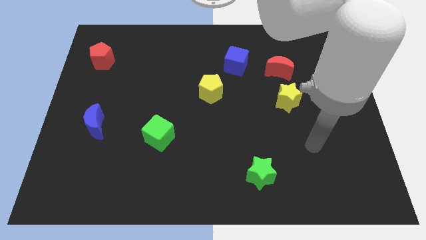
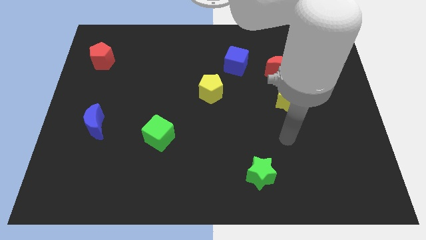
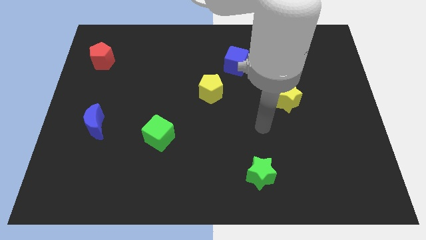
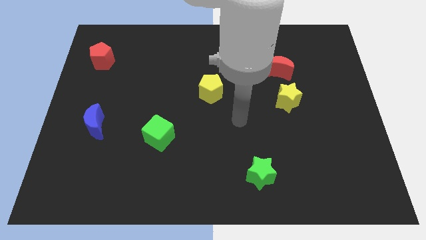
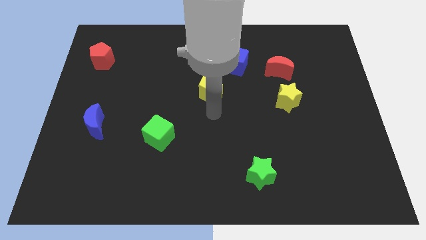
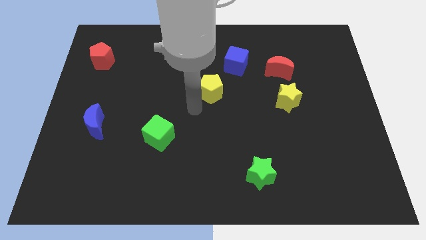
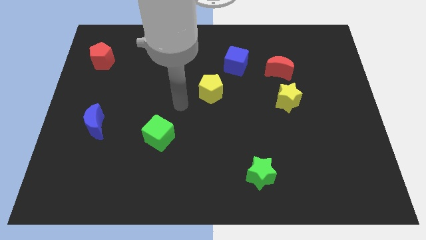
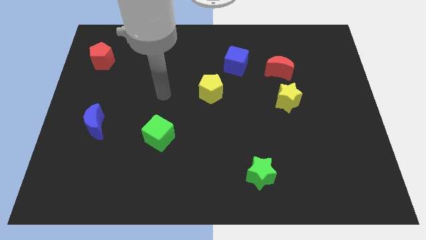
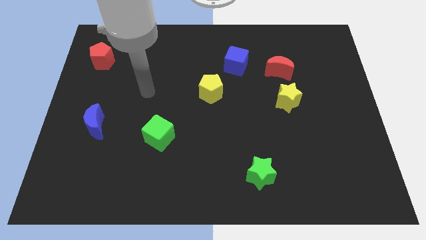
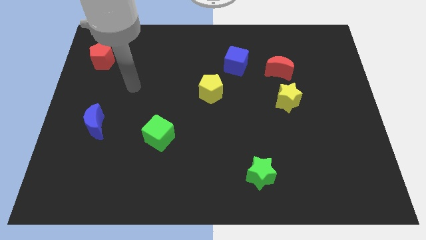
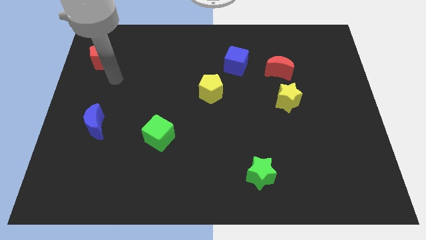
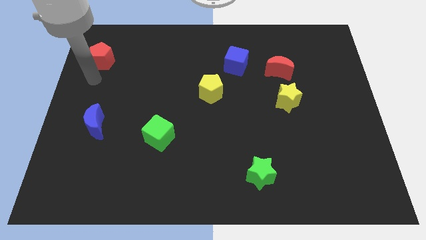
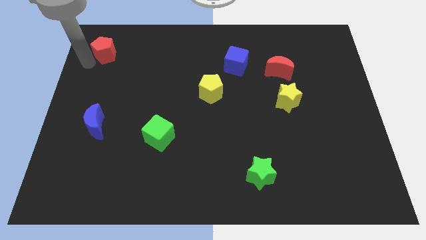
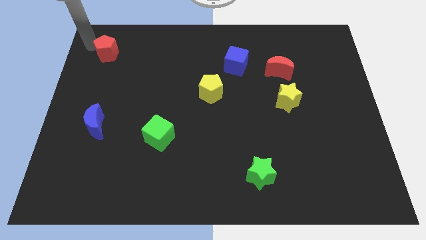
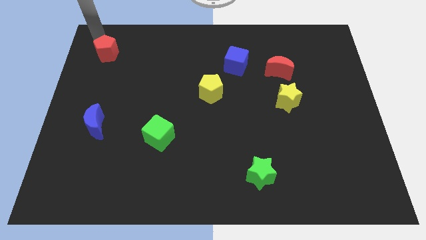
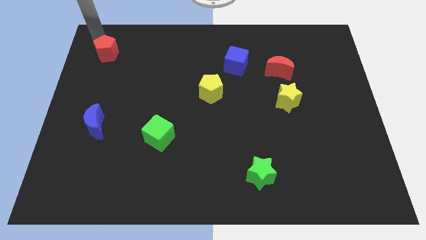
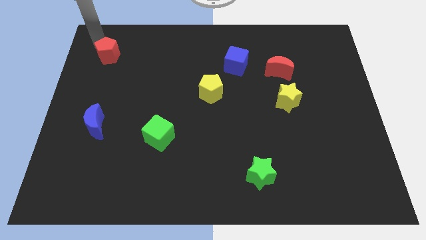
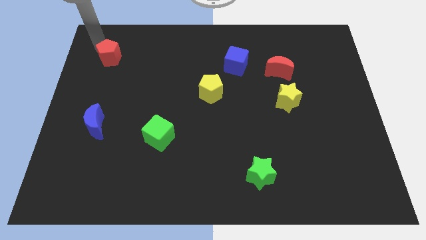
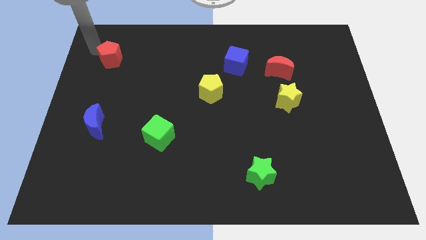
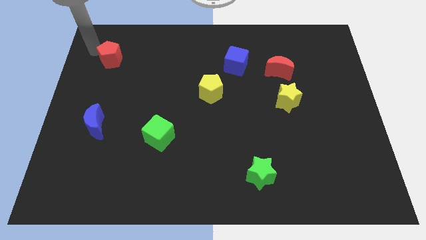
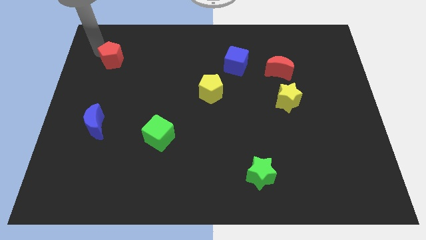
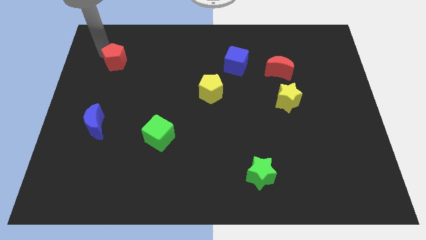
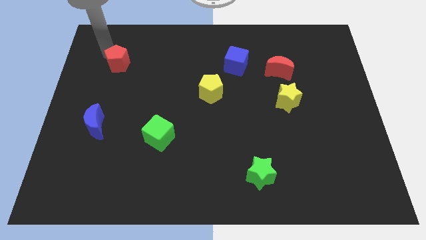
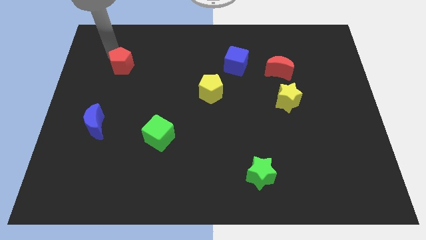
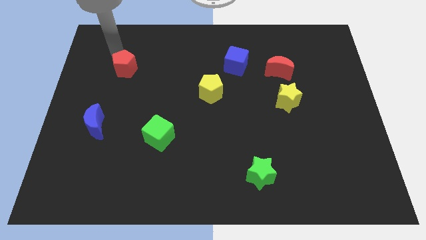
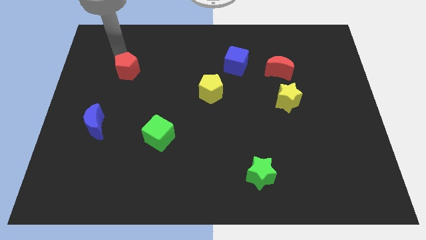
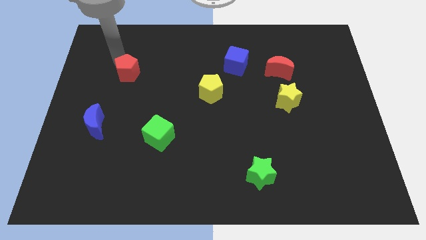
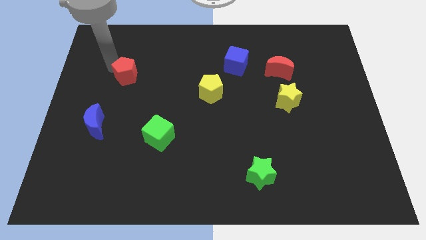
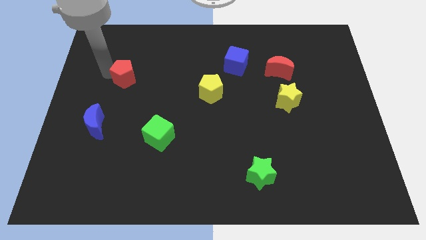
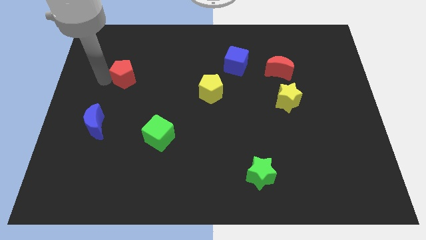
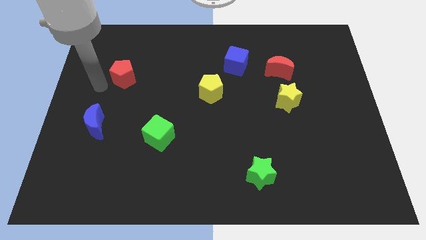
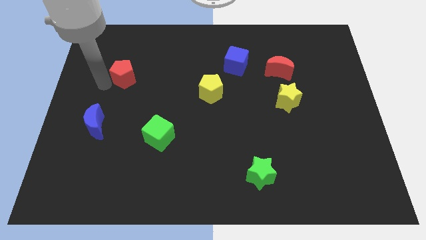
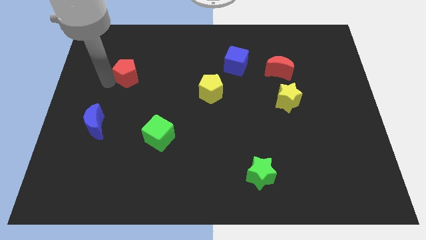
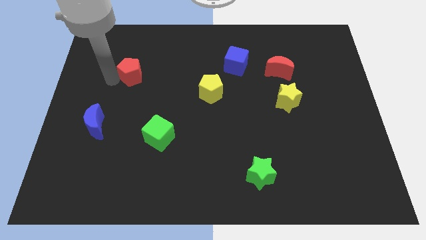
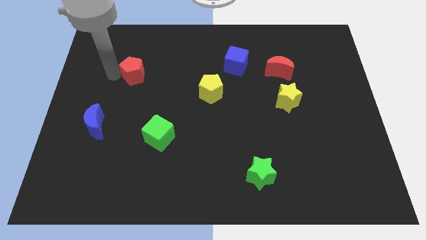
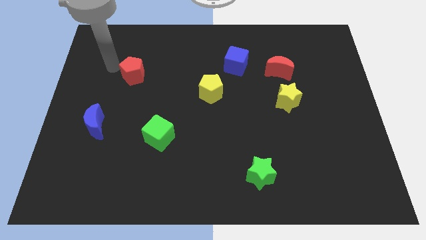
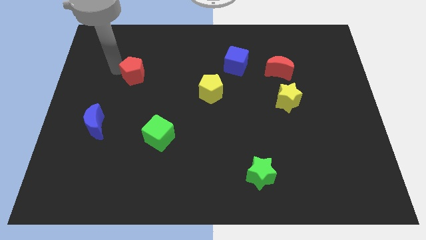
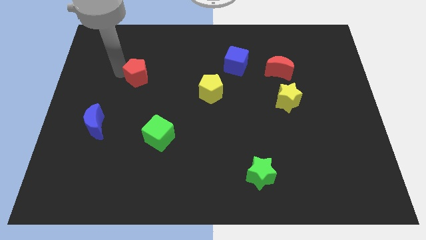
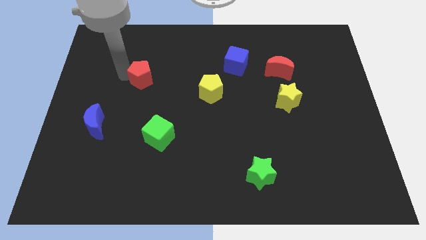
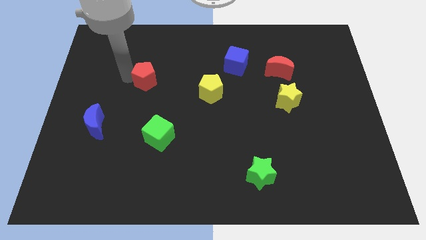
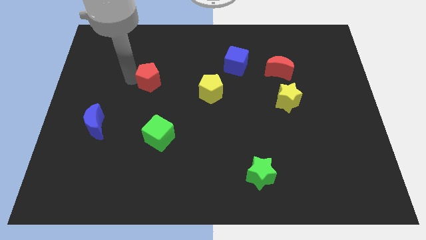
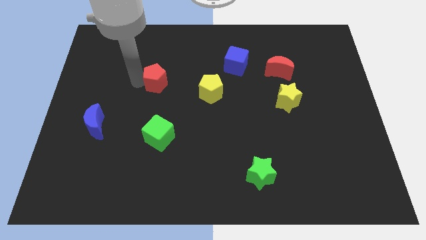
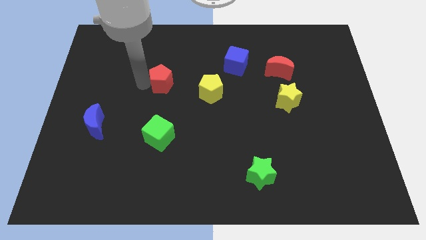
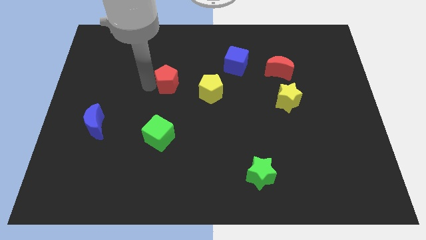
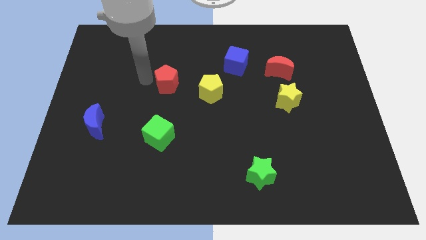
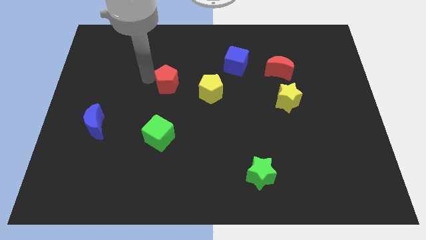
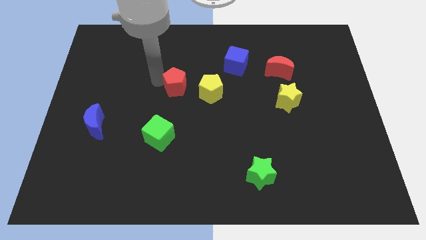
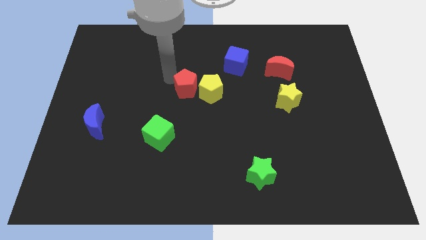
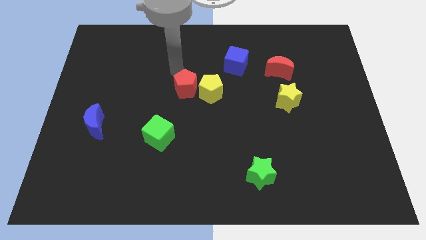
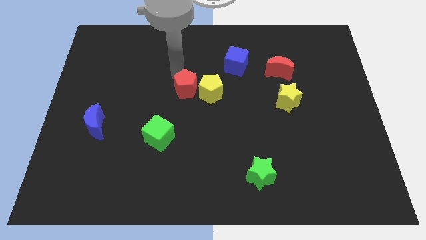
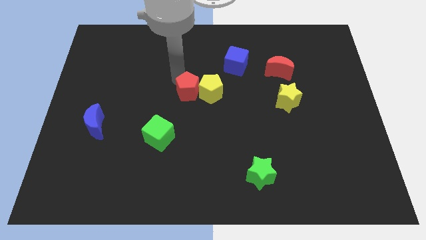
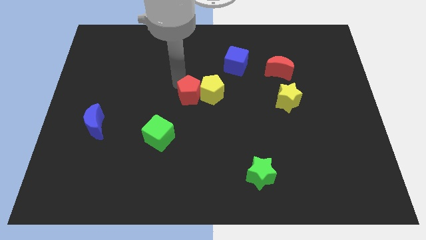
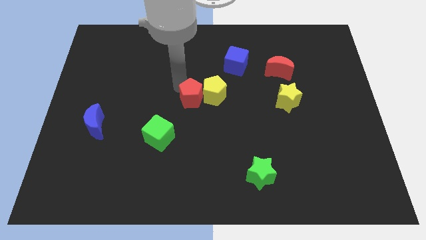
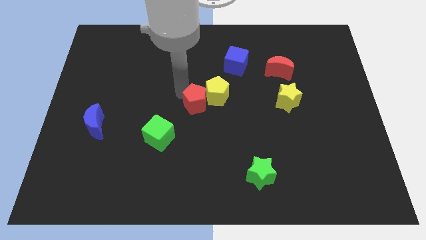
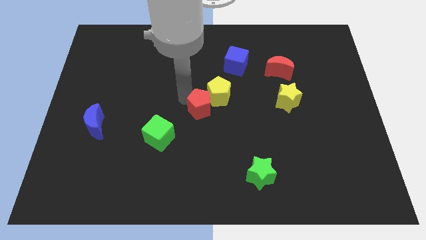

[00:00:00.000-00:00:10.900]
push the red pentagon to the bottom side of the yellow pentagon

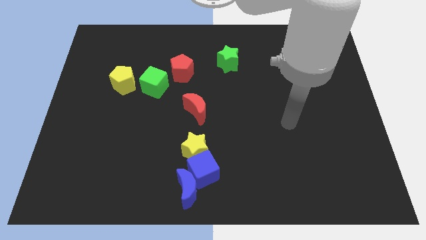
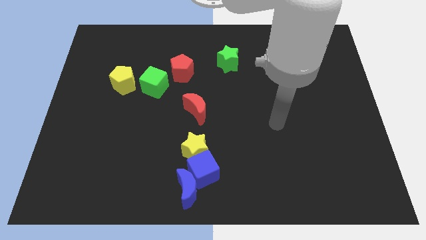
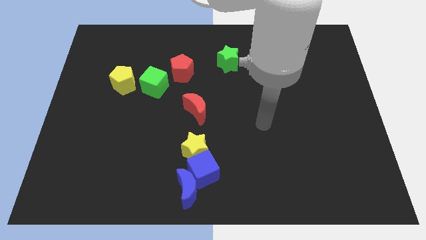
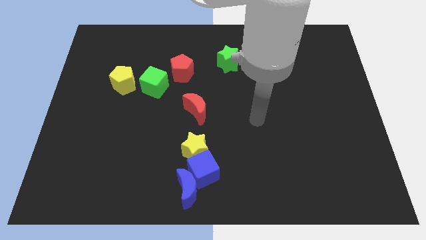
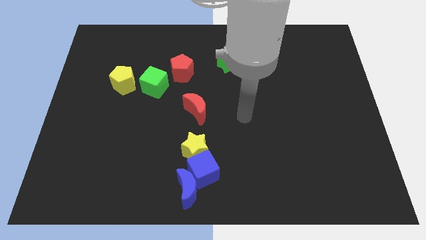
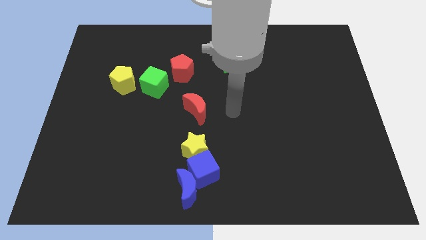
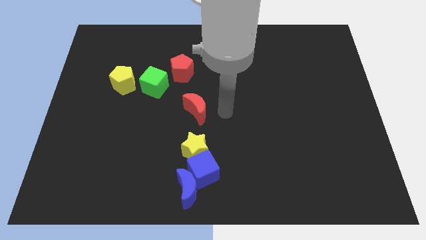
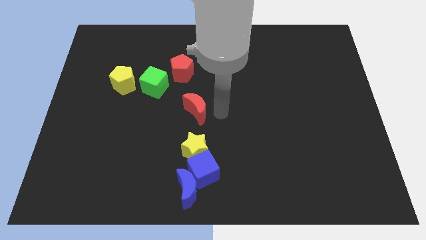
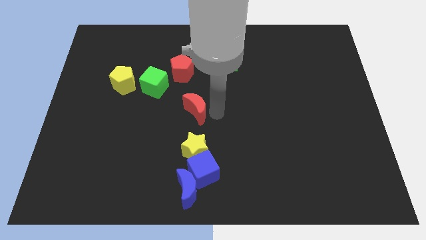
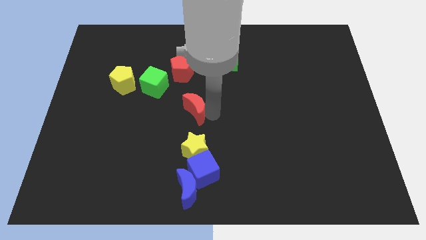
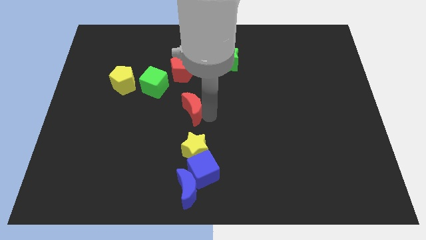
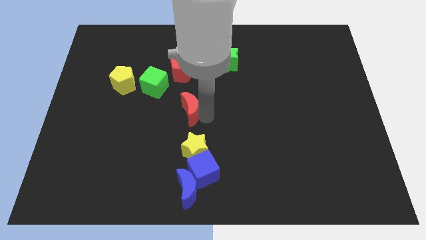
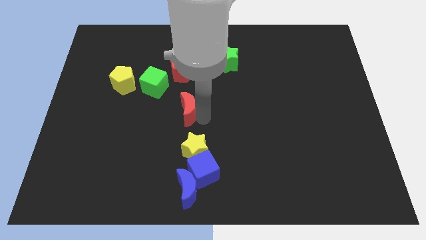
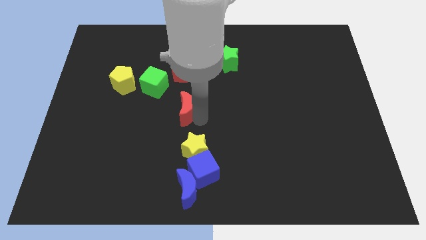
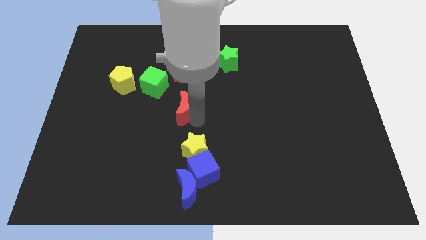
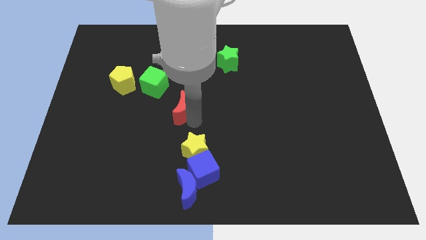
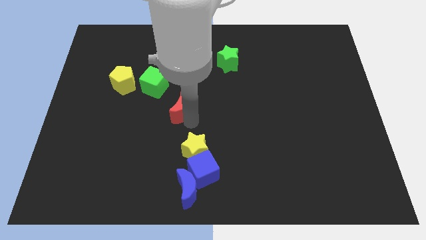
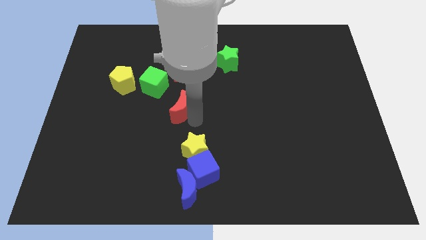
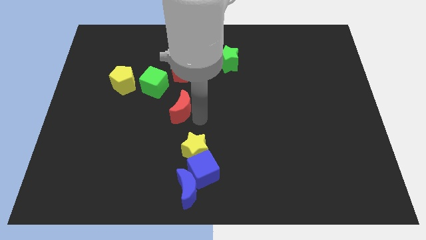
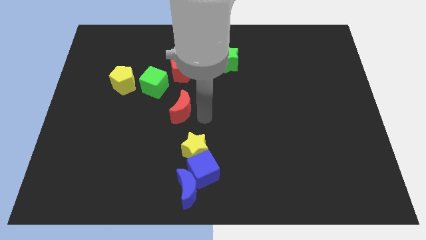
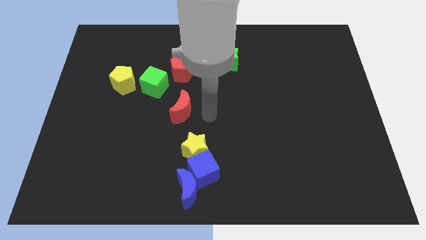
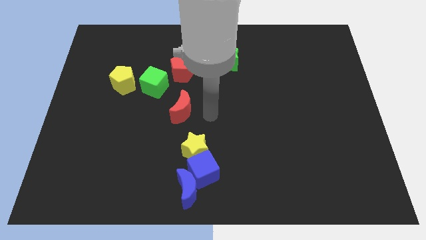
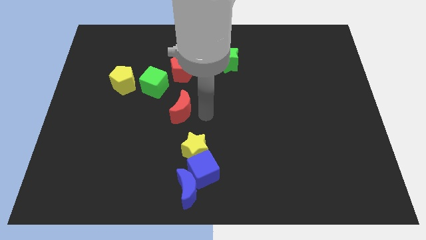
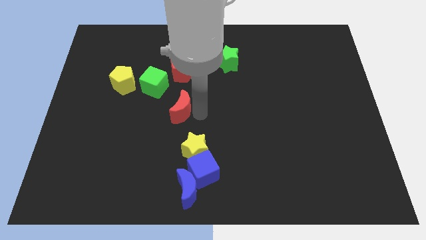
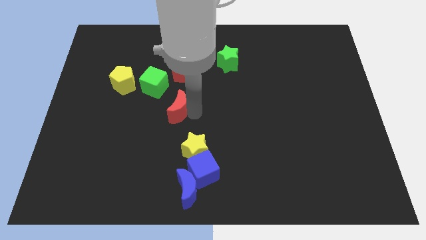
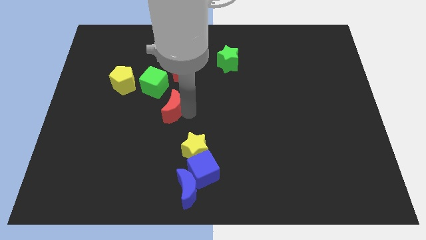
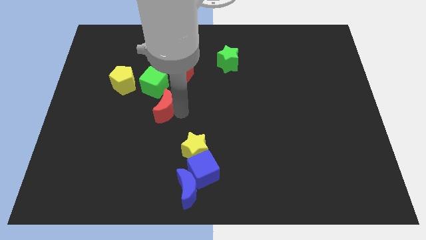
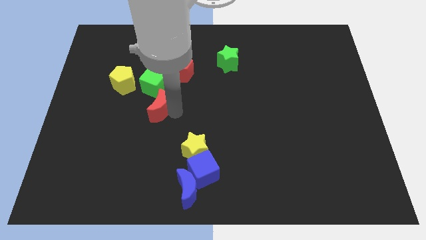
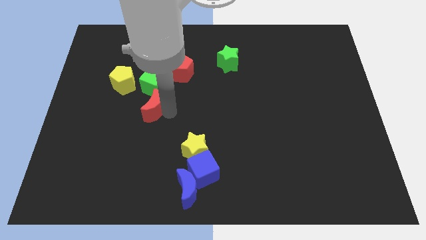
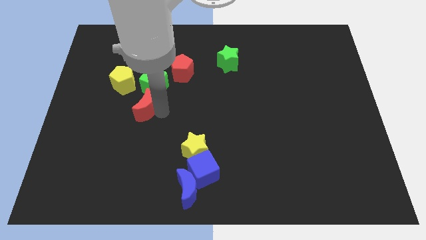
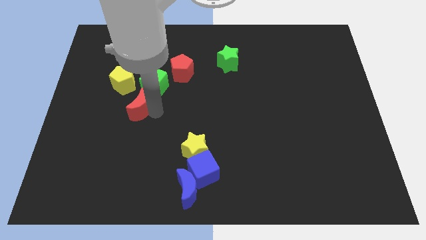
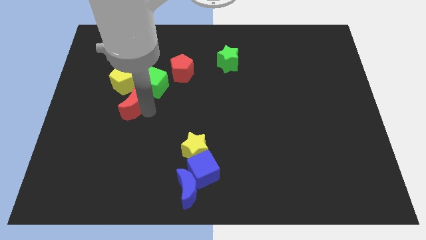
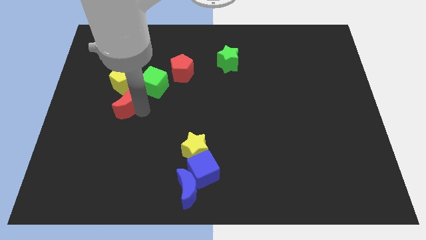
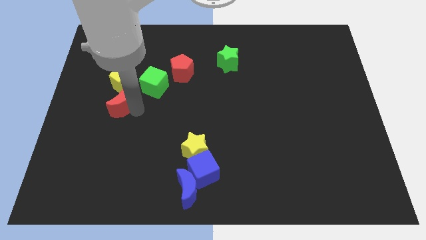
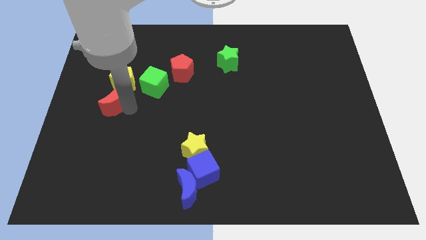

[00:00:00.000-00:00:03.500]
push the red moon to the bottom left side of the yellow pentagon
